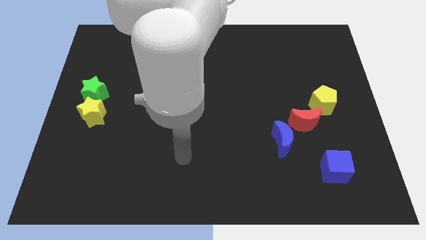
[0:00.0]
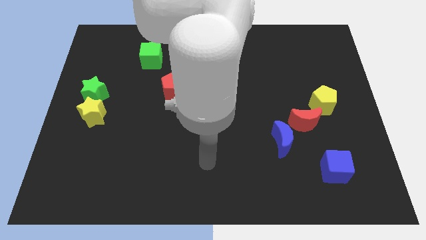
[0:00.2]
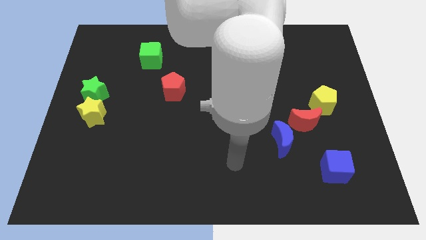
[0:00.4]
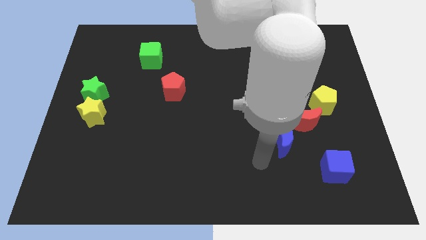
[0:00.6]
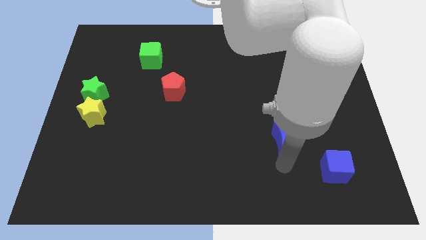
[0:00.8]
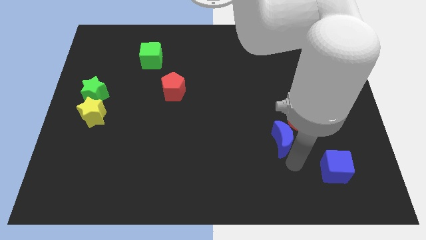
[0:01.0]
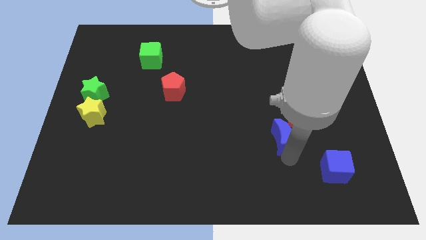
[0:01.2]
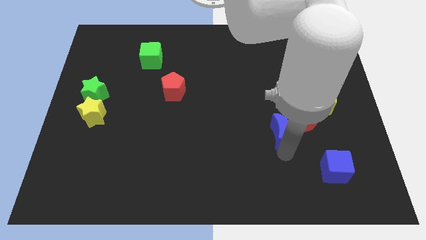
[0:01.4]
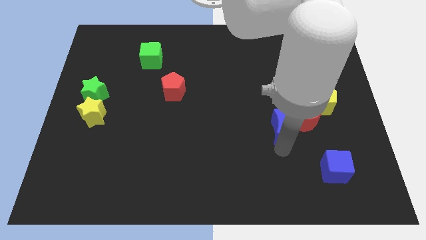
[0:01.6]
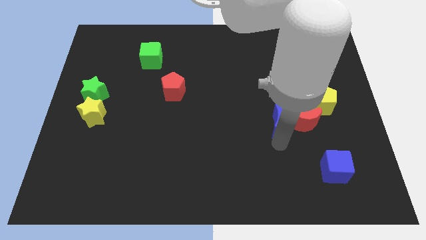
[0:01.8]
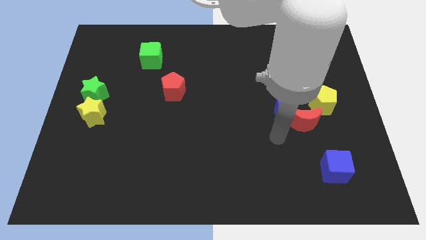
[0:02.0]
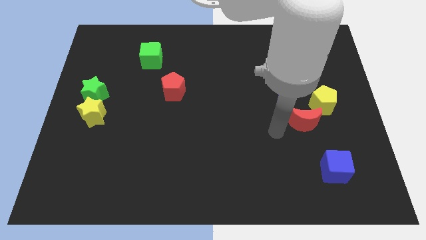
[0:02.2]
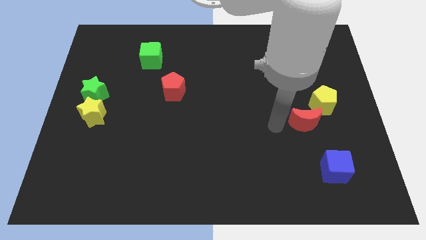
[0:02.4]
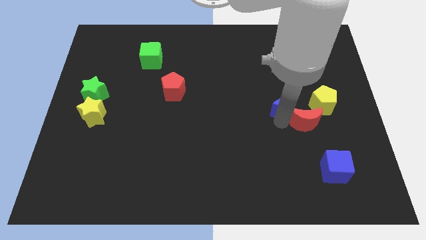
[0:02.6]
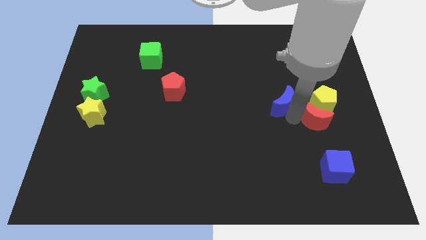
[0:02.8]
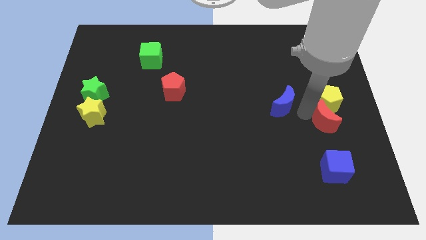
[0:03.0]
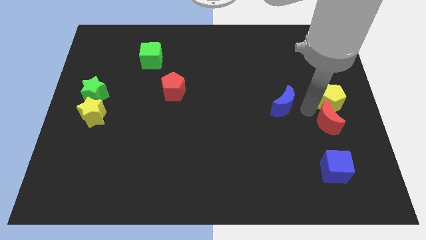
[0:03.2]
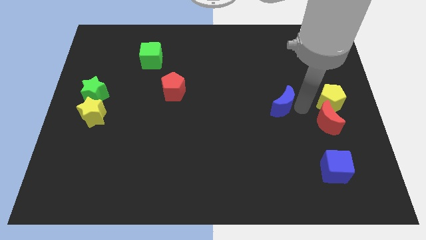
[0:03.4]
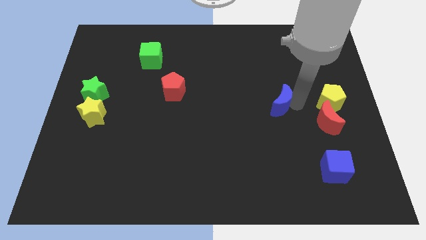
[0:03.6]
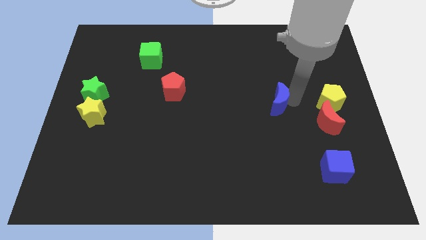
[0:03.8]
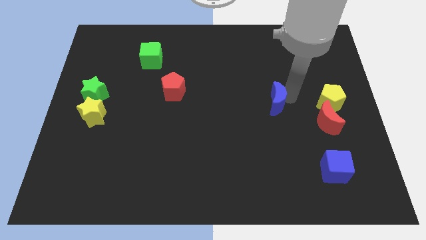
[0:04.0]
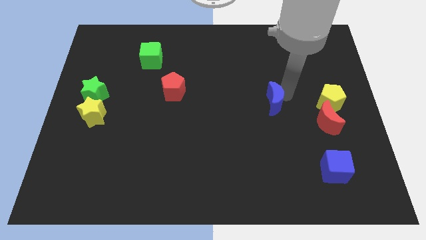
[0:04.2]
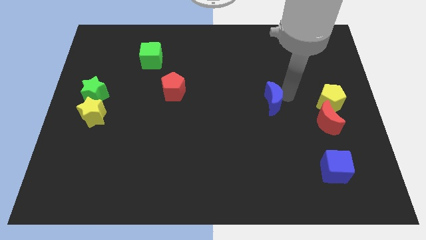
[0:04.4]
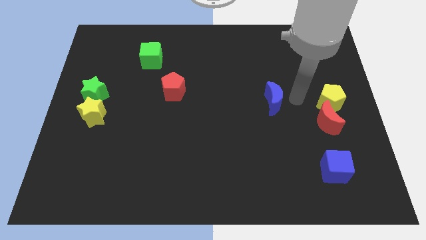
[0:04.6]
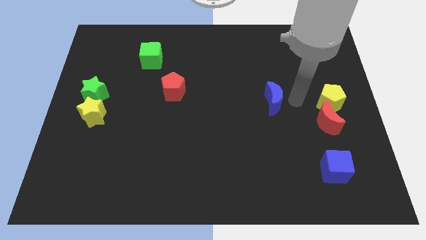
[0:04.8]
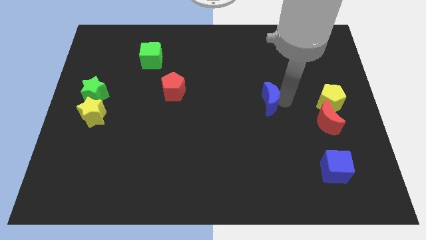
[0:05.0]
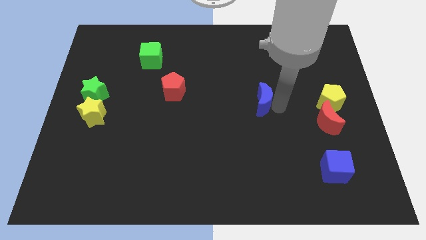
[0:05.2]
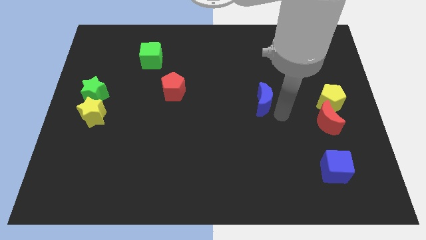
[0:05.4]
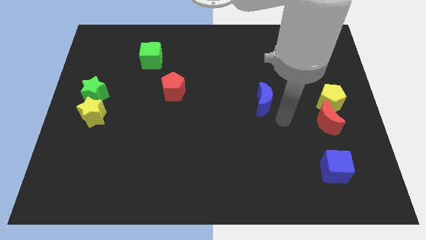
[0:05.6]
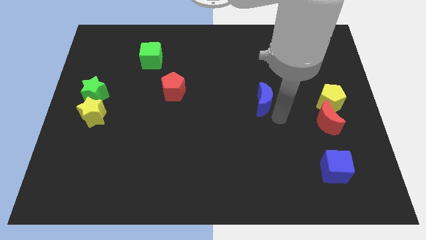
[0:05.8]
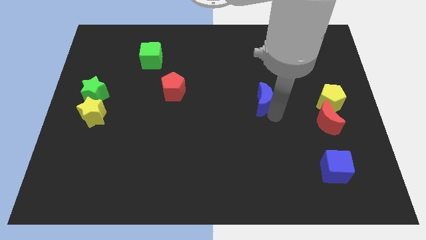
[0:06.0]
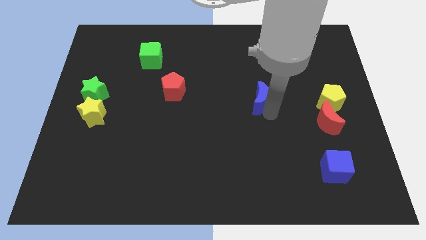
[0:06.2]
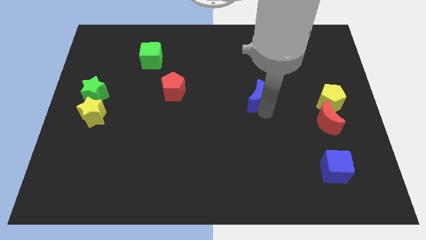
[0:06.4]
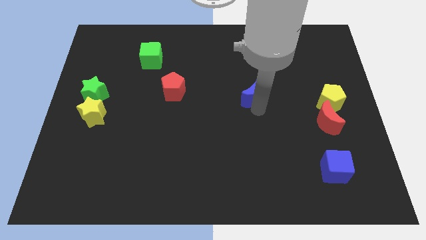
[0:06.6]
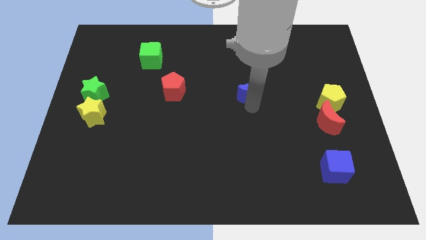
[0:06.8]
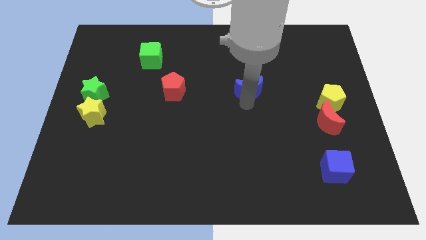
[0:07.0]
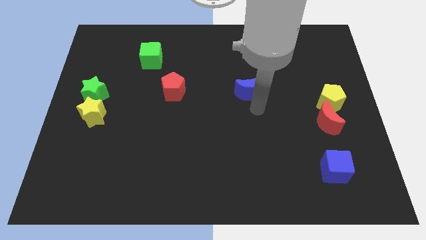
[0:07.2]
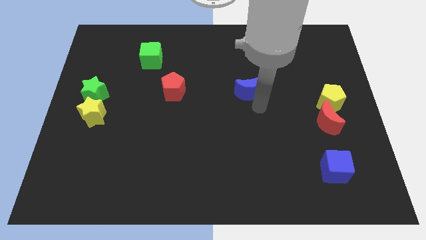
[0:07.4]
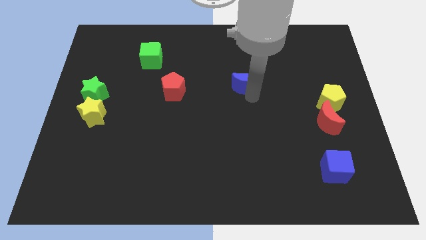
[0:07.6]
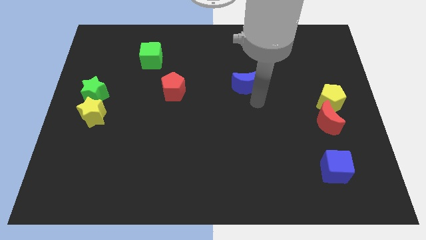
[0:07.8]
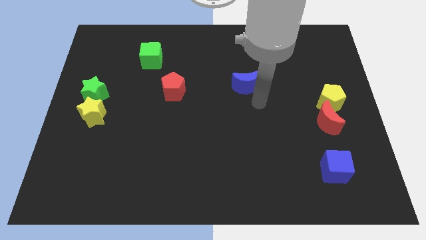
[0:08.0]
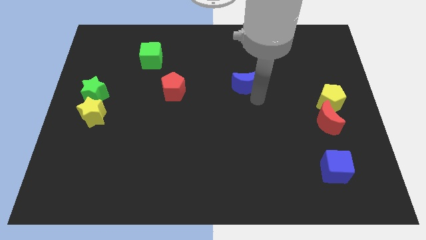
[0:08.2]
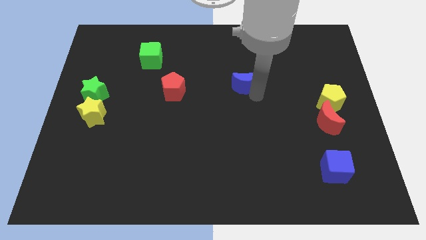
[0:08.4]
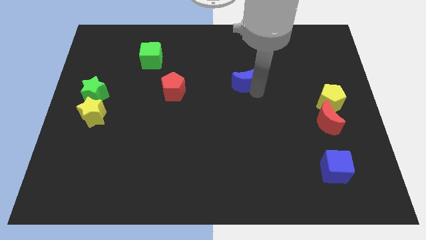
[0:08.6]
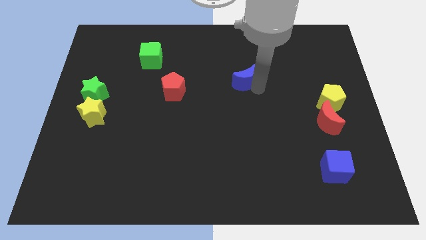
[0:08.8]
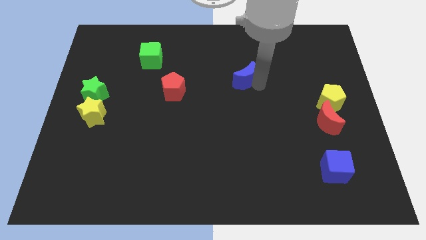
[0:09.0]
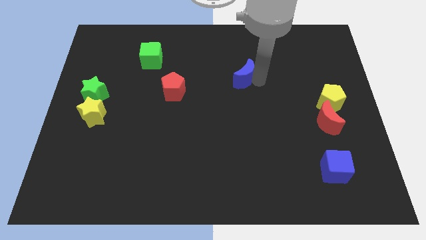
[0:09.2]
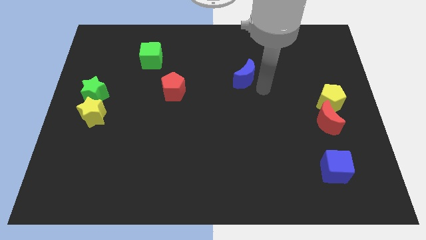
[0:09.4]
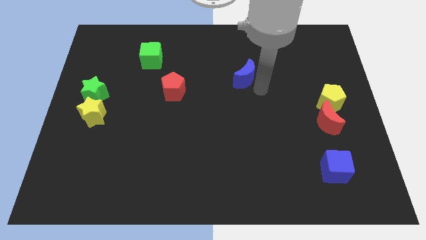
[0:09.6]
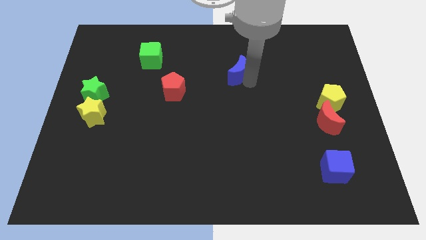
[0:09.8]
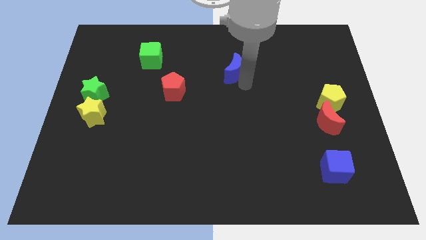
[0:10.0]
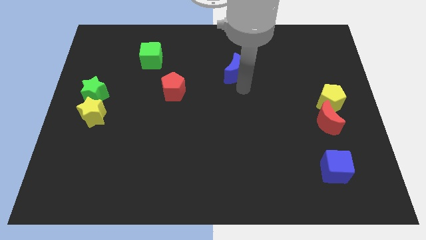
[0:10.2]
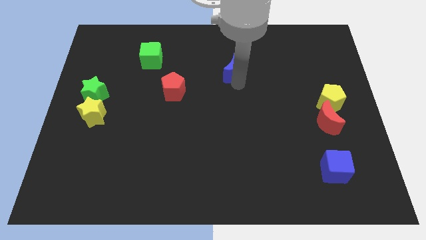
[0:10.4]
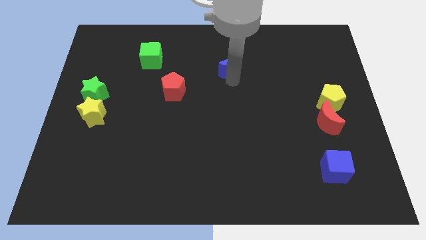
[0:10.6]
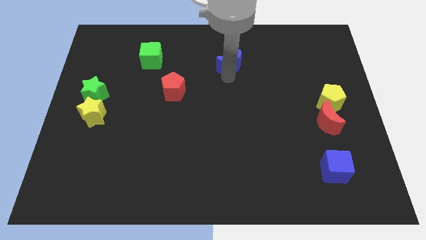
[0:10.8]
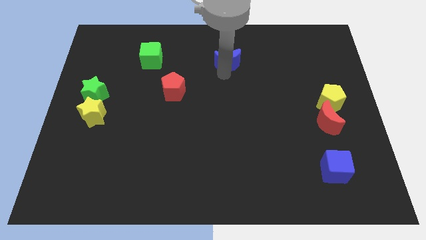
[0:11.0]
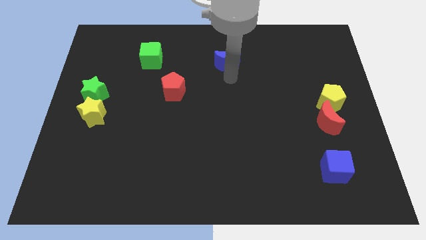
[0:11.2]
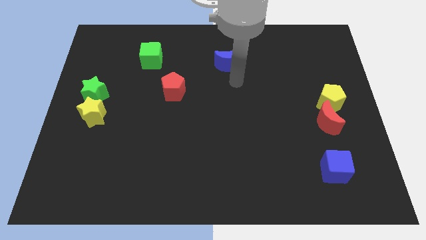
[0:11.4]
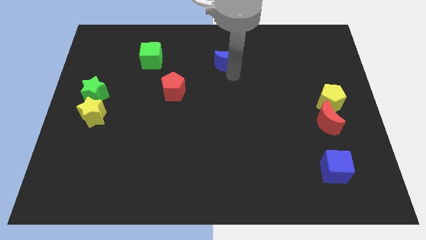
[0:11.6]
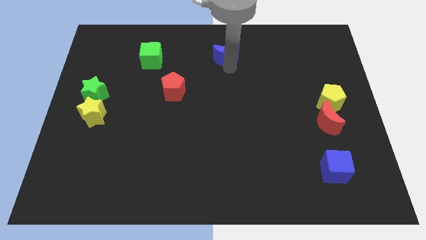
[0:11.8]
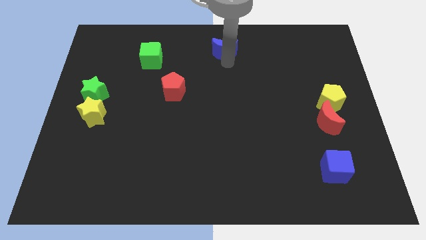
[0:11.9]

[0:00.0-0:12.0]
slide the blue moon to the top side
